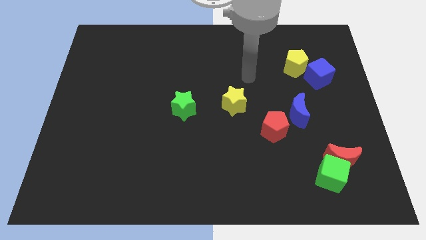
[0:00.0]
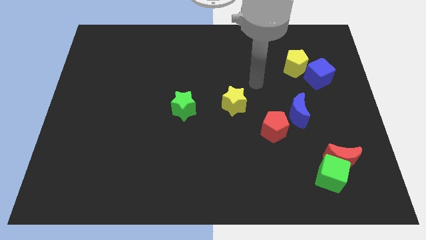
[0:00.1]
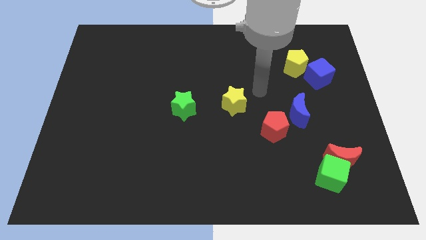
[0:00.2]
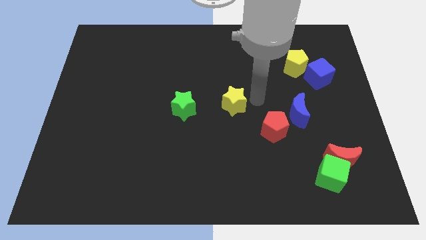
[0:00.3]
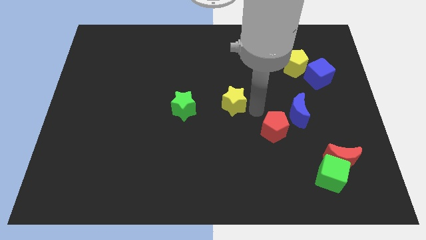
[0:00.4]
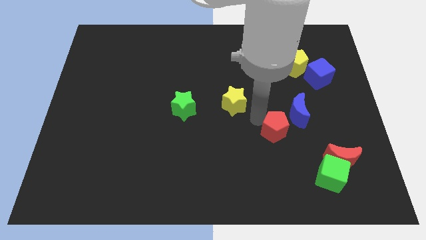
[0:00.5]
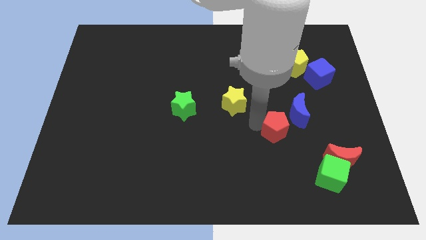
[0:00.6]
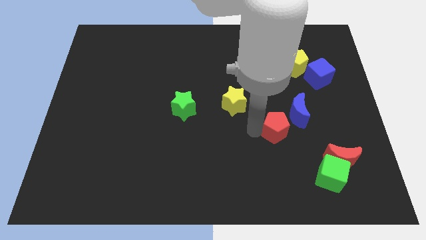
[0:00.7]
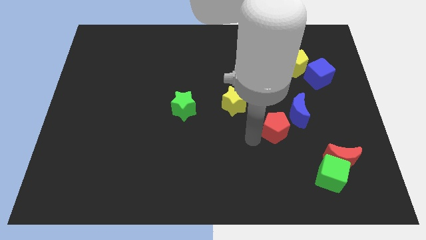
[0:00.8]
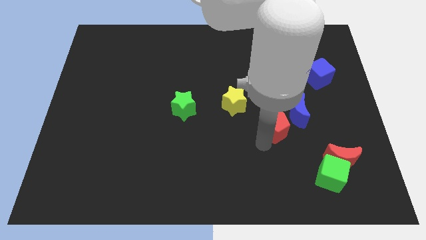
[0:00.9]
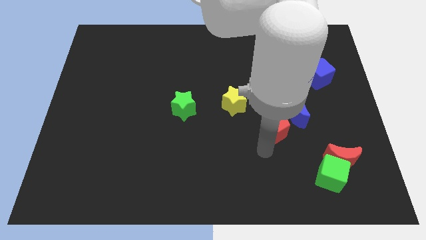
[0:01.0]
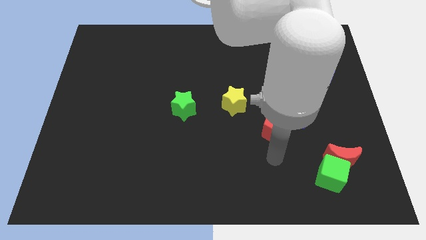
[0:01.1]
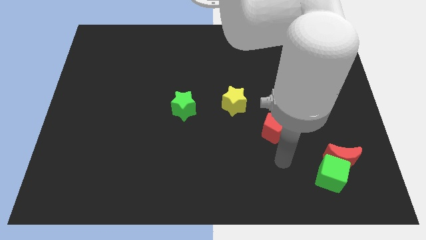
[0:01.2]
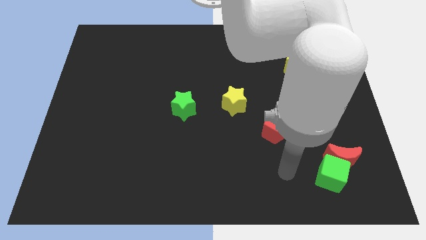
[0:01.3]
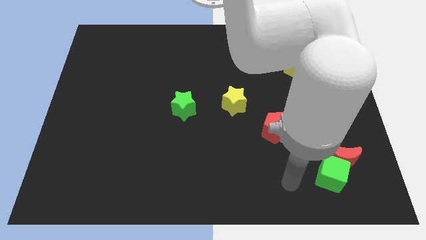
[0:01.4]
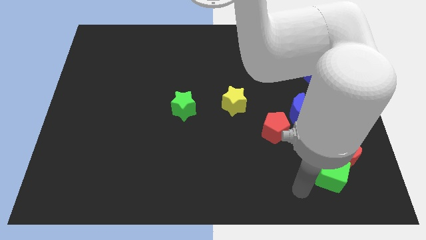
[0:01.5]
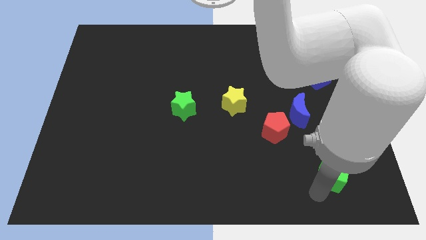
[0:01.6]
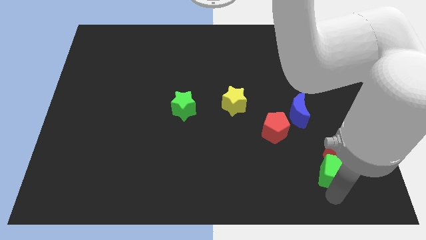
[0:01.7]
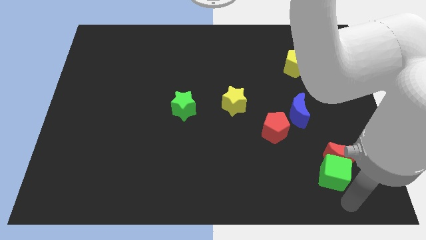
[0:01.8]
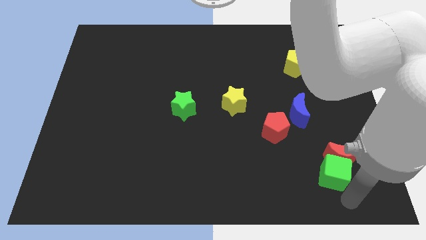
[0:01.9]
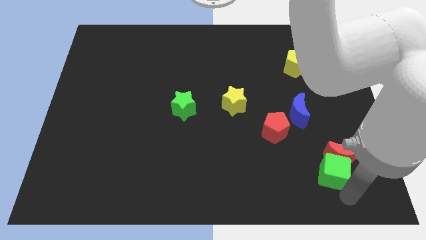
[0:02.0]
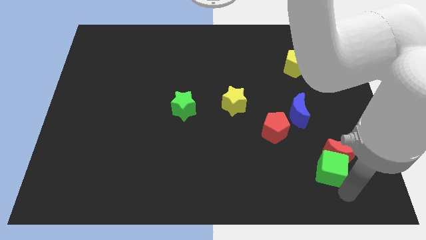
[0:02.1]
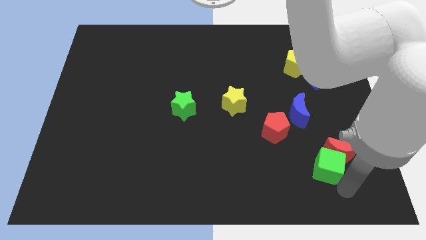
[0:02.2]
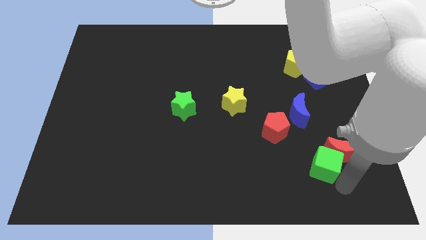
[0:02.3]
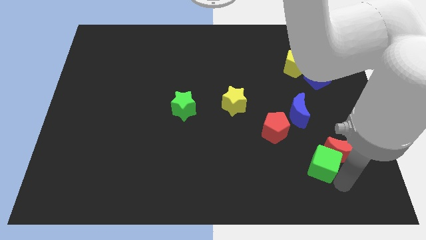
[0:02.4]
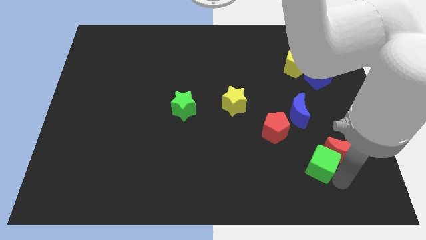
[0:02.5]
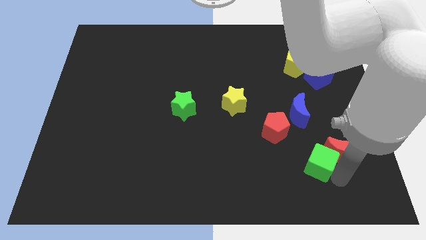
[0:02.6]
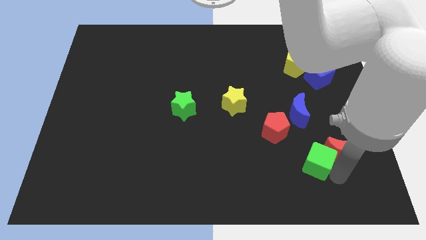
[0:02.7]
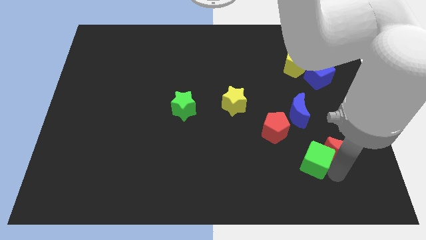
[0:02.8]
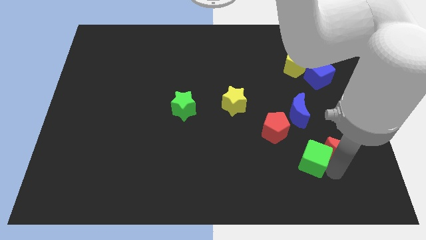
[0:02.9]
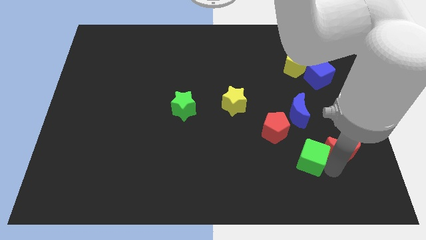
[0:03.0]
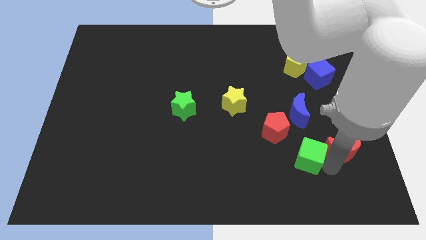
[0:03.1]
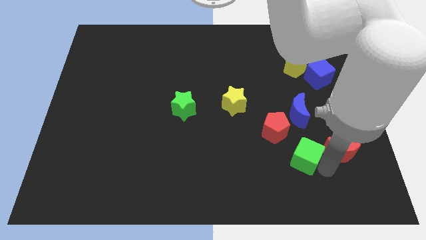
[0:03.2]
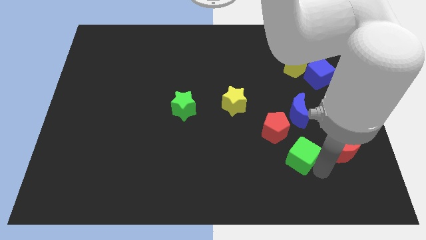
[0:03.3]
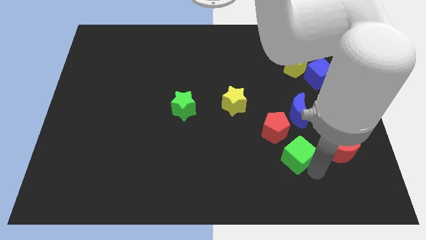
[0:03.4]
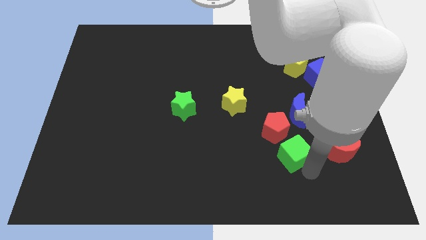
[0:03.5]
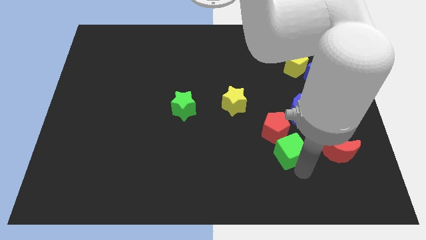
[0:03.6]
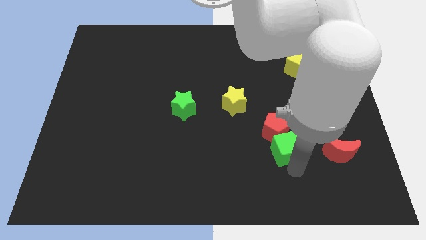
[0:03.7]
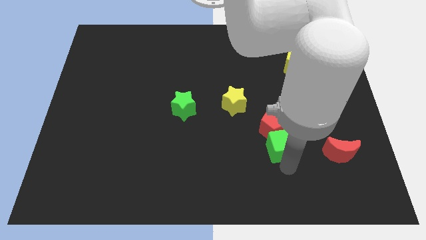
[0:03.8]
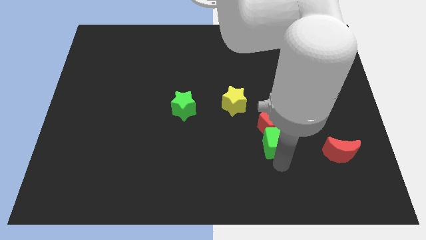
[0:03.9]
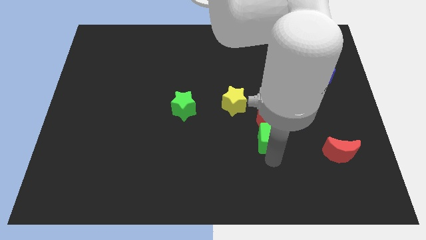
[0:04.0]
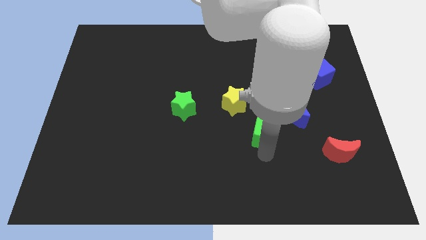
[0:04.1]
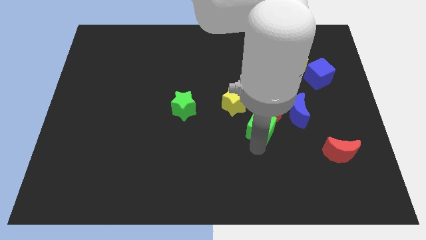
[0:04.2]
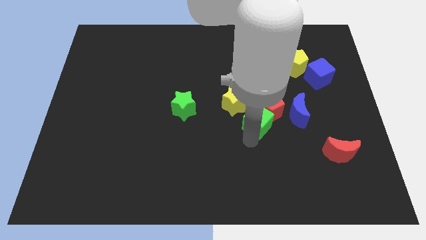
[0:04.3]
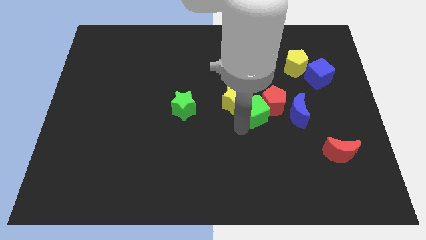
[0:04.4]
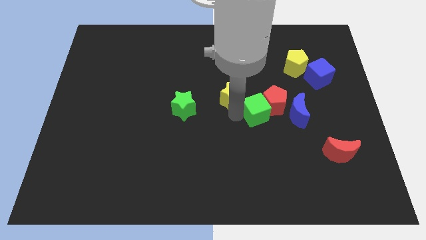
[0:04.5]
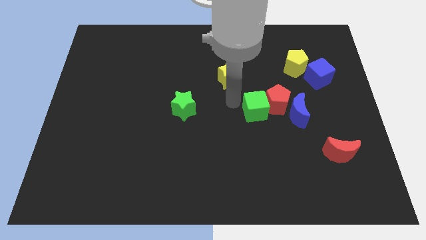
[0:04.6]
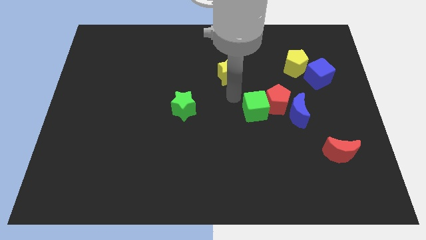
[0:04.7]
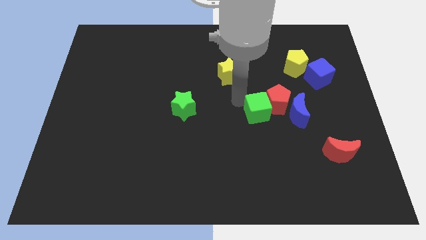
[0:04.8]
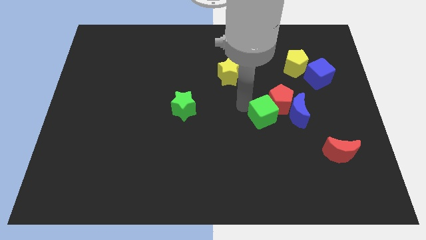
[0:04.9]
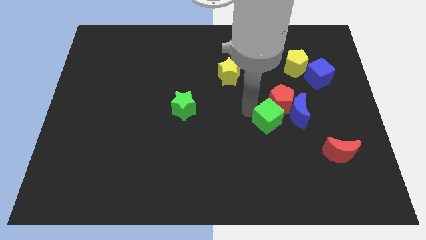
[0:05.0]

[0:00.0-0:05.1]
move the green cube upwards a little

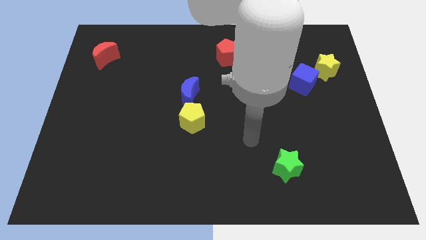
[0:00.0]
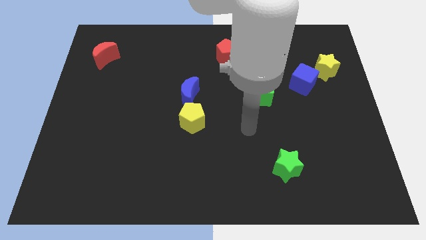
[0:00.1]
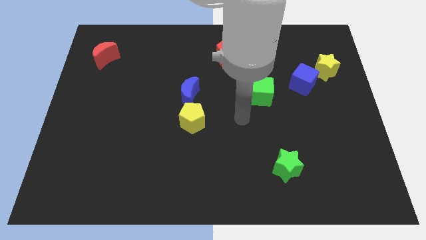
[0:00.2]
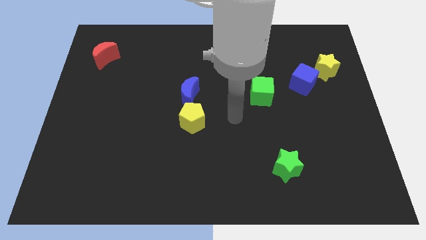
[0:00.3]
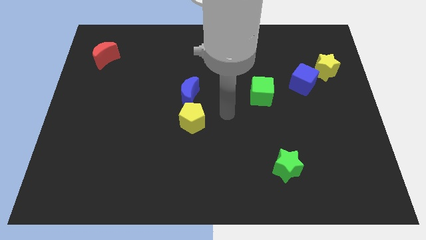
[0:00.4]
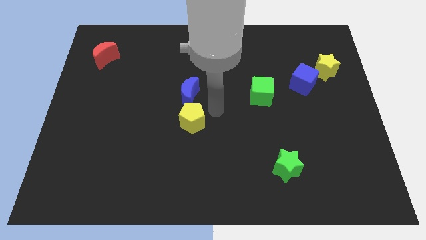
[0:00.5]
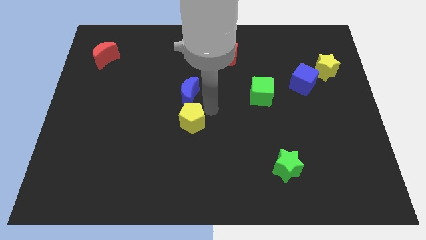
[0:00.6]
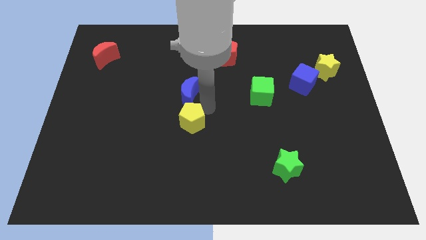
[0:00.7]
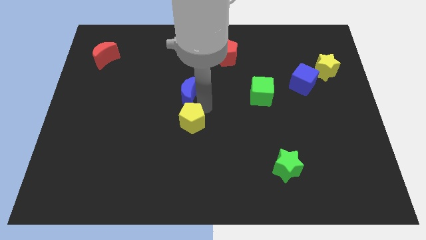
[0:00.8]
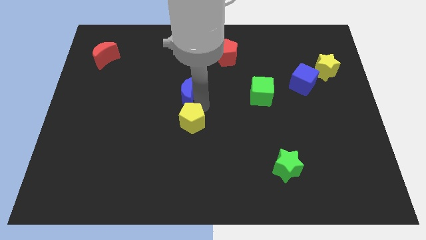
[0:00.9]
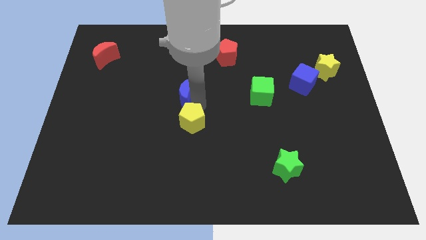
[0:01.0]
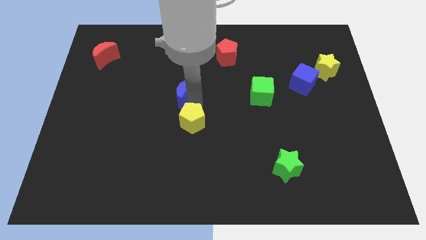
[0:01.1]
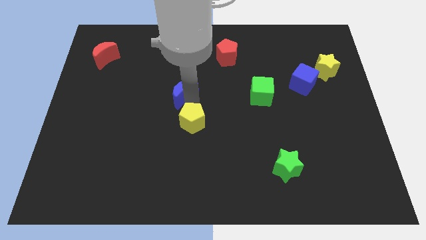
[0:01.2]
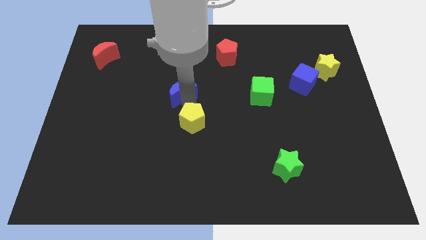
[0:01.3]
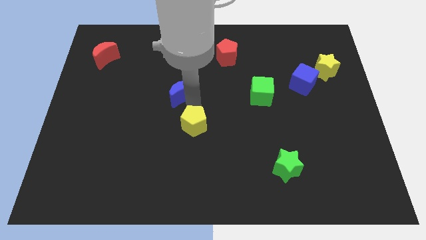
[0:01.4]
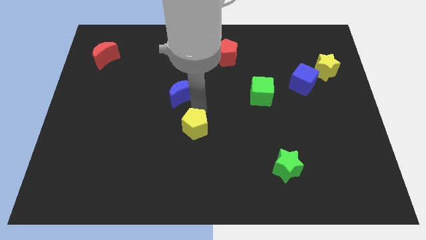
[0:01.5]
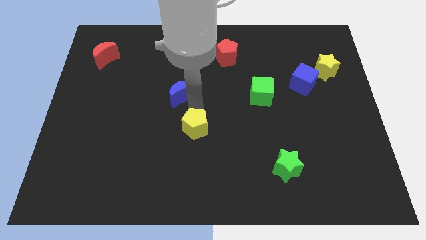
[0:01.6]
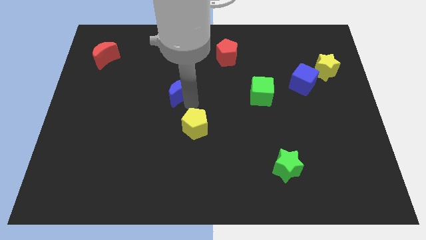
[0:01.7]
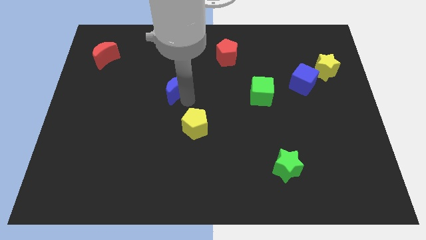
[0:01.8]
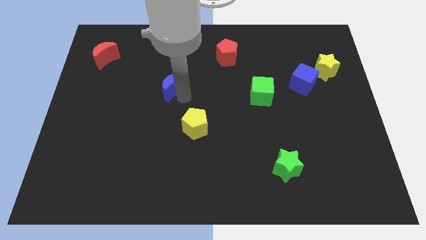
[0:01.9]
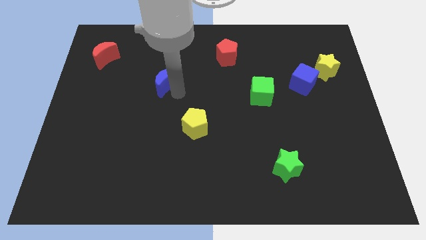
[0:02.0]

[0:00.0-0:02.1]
slightly move the blue moon upwards and then left

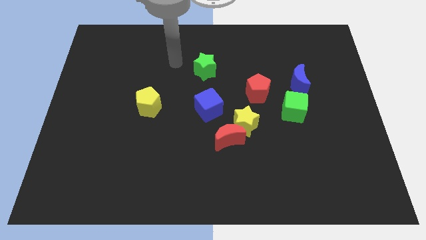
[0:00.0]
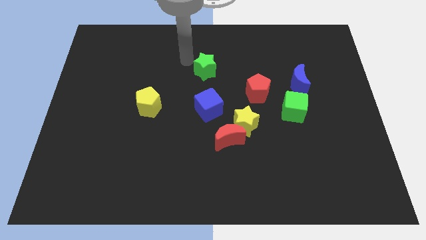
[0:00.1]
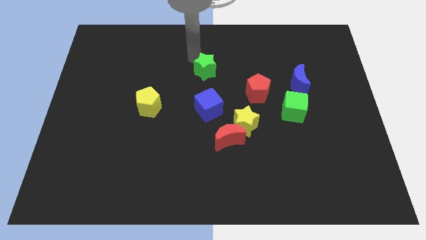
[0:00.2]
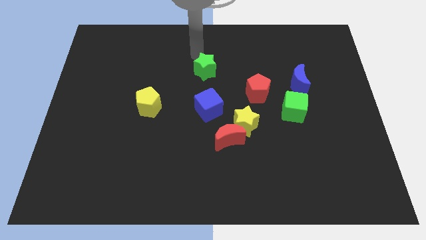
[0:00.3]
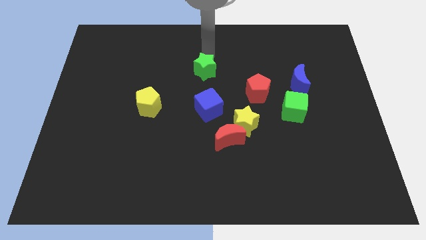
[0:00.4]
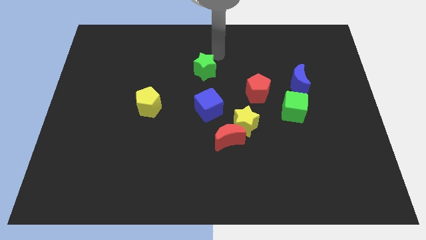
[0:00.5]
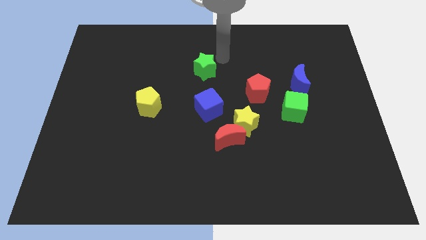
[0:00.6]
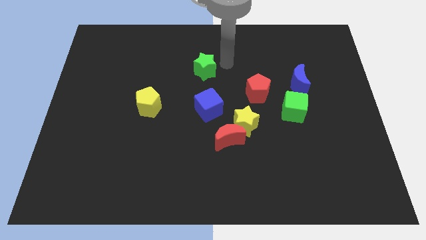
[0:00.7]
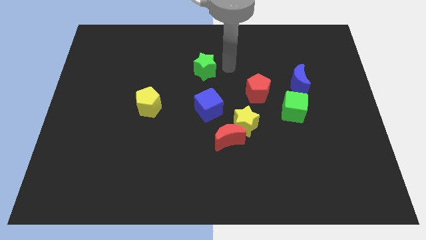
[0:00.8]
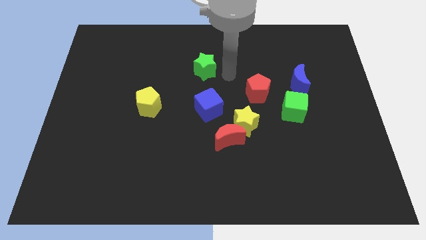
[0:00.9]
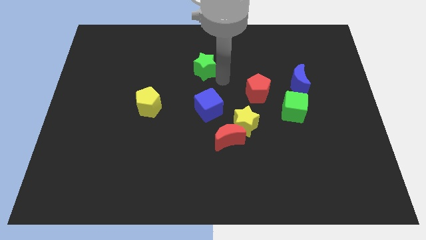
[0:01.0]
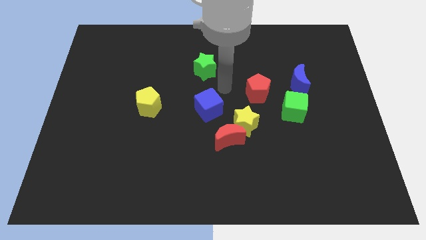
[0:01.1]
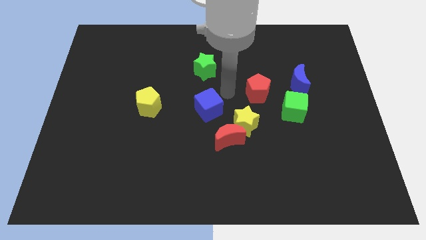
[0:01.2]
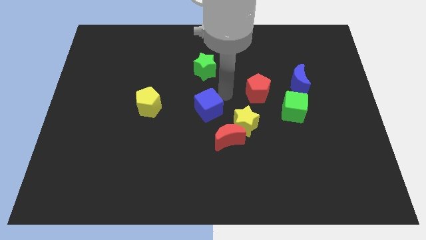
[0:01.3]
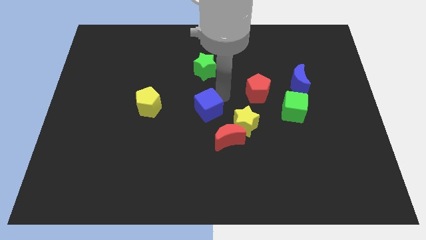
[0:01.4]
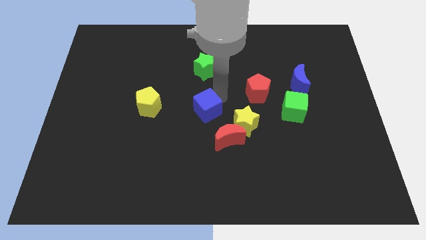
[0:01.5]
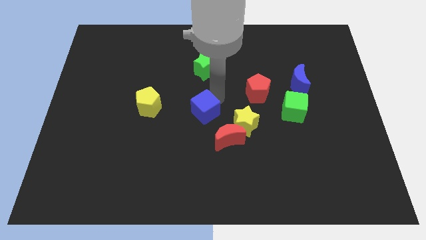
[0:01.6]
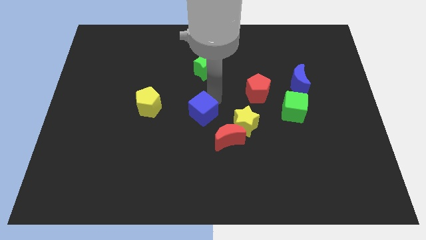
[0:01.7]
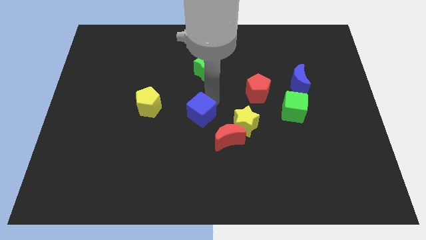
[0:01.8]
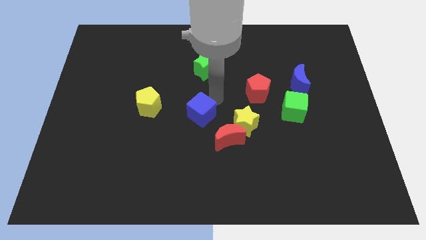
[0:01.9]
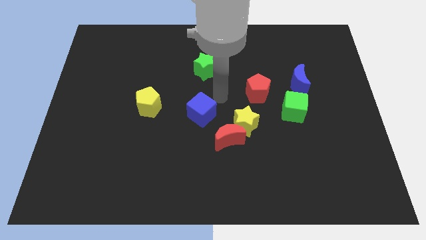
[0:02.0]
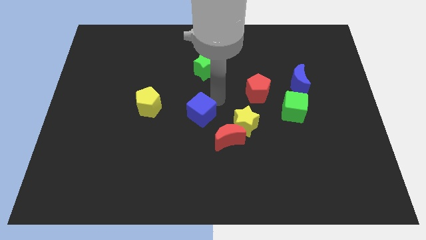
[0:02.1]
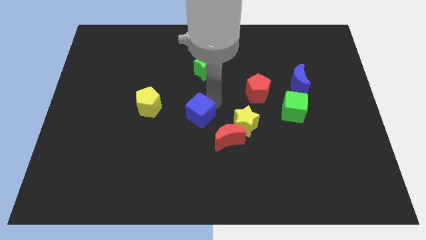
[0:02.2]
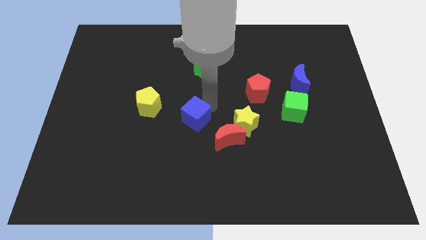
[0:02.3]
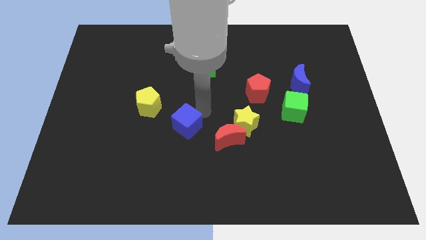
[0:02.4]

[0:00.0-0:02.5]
push the blue cube a little diagonally down and left
